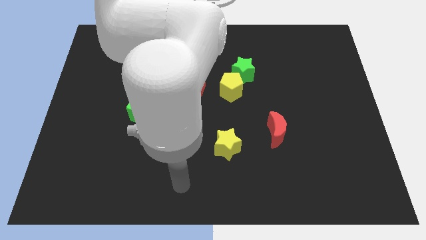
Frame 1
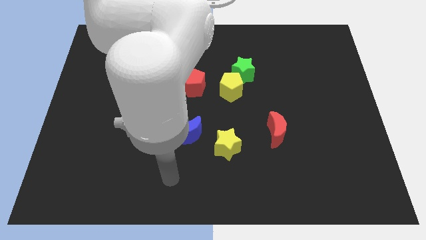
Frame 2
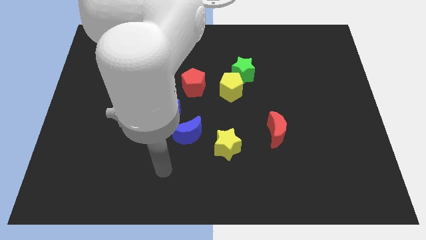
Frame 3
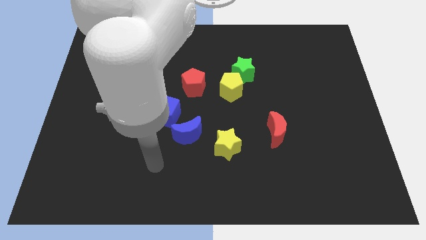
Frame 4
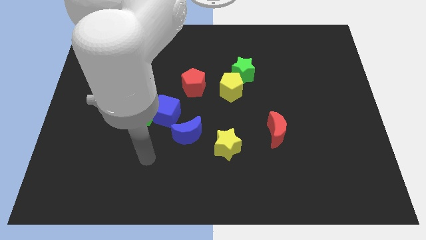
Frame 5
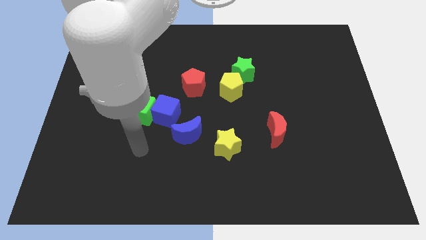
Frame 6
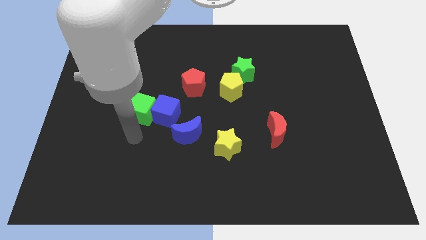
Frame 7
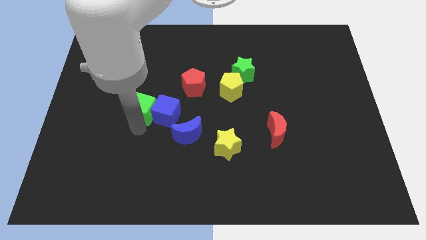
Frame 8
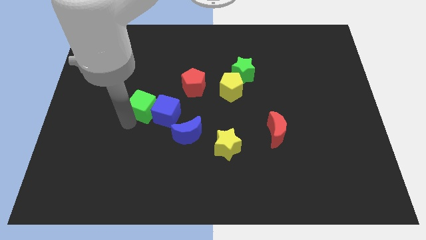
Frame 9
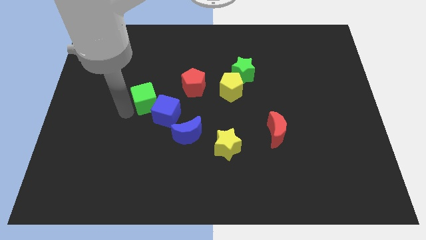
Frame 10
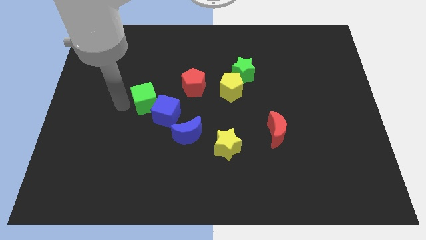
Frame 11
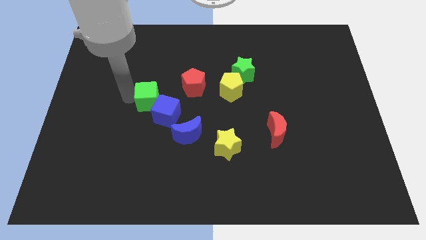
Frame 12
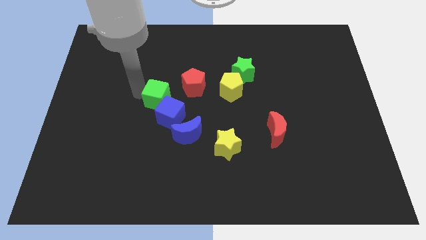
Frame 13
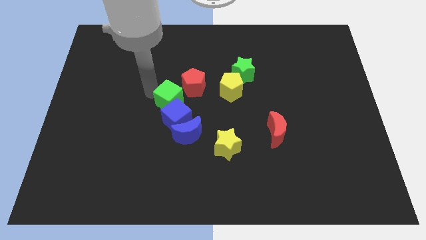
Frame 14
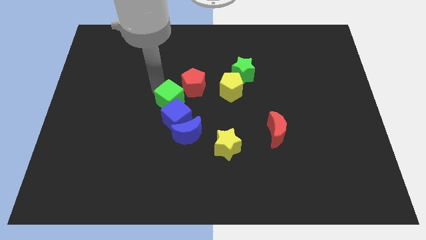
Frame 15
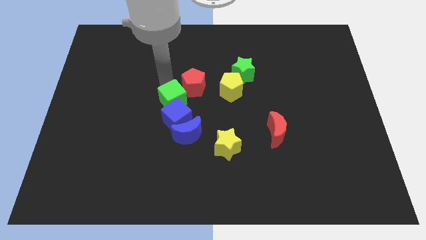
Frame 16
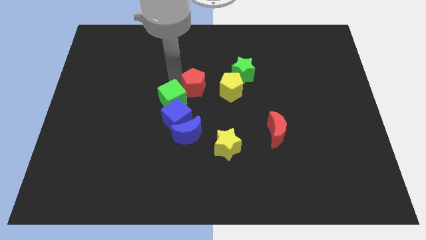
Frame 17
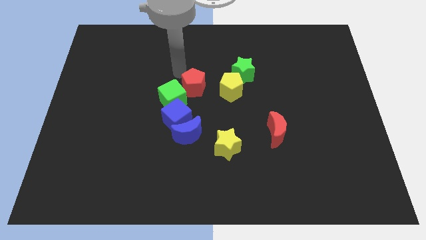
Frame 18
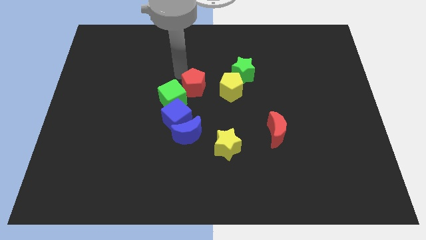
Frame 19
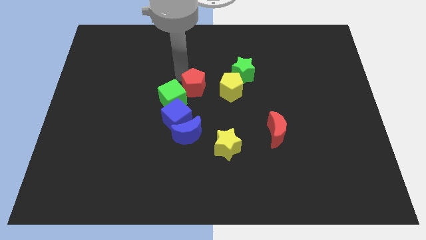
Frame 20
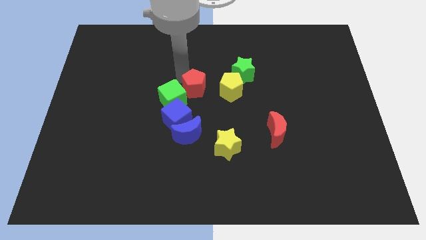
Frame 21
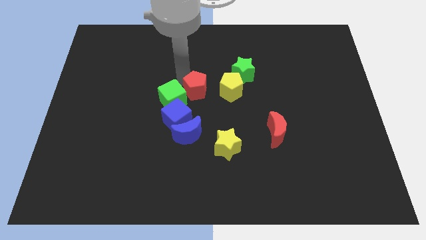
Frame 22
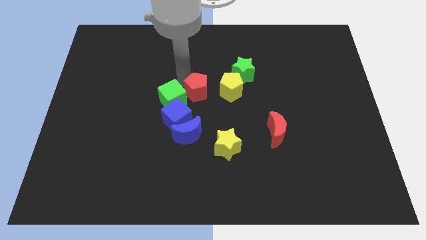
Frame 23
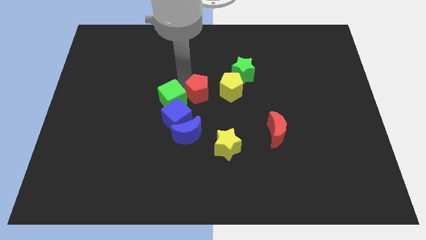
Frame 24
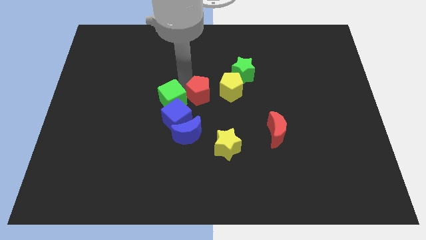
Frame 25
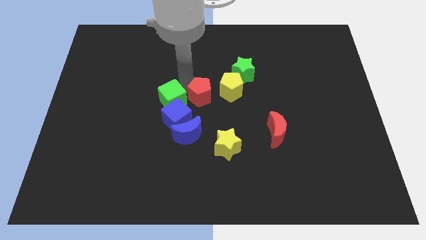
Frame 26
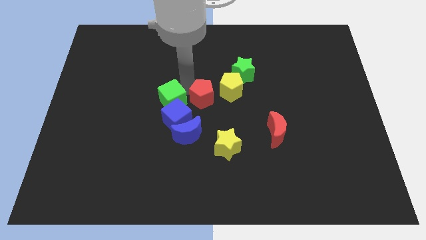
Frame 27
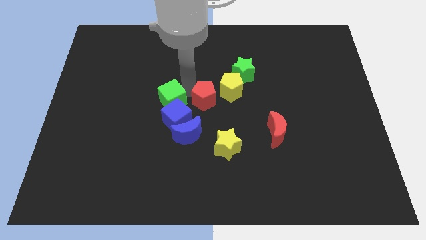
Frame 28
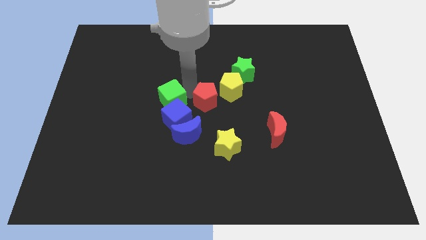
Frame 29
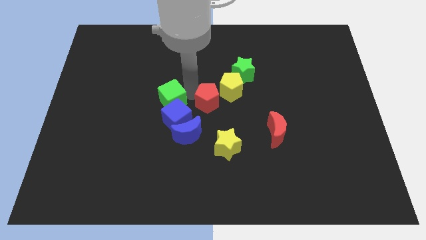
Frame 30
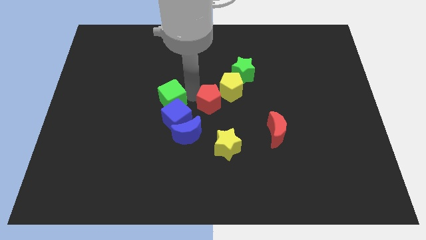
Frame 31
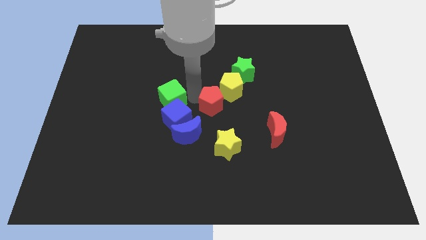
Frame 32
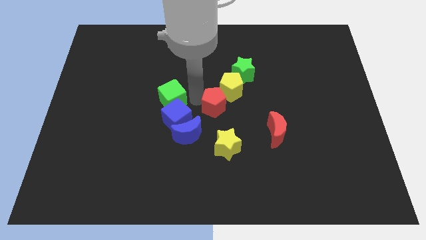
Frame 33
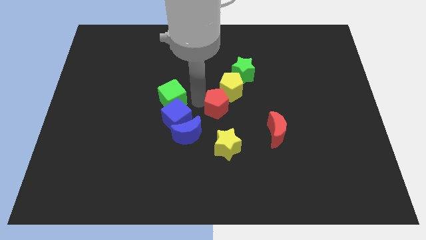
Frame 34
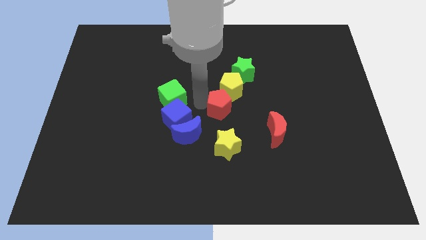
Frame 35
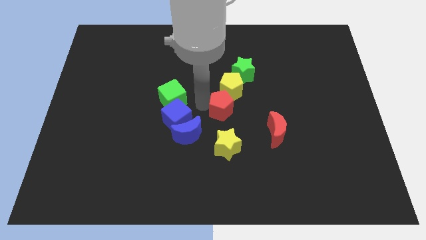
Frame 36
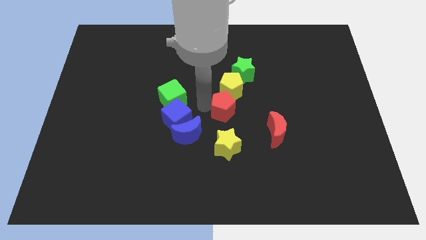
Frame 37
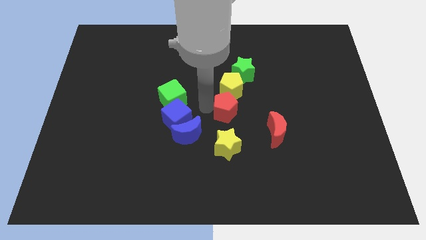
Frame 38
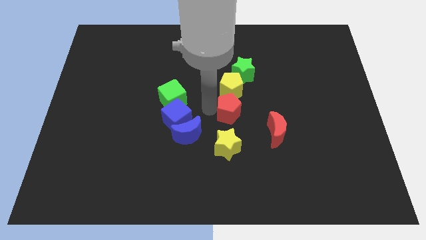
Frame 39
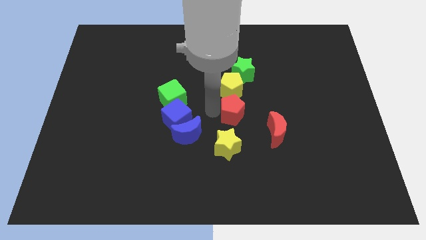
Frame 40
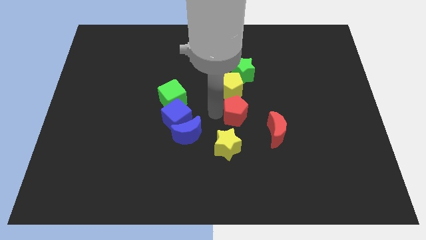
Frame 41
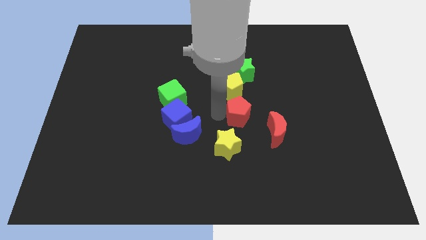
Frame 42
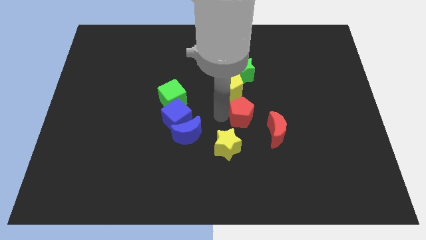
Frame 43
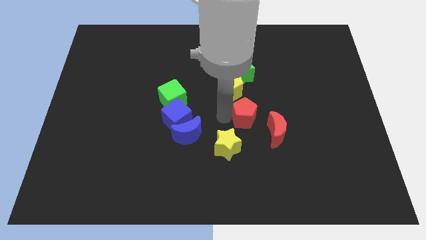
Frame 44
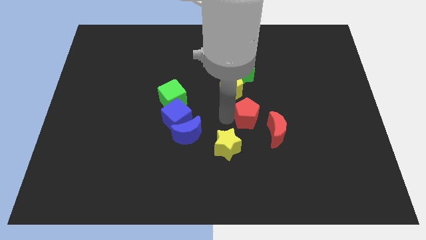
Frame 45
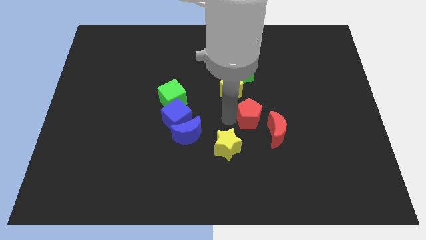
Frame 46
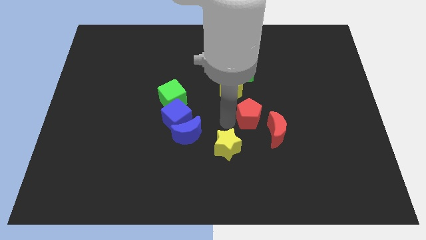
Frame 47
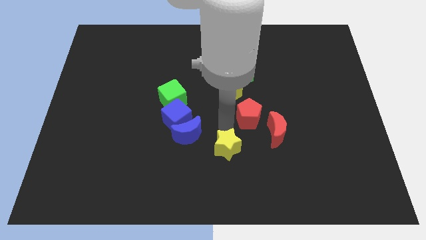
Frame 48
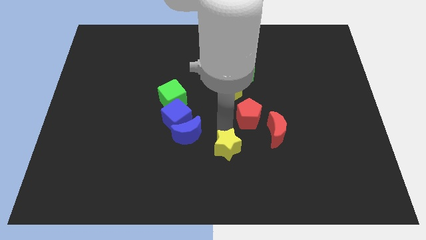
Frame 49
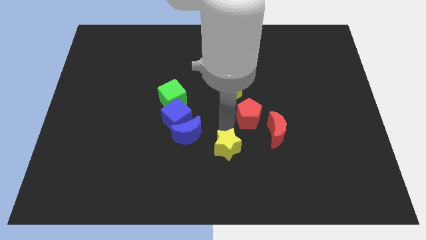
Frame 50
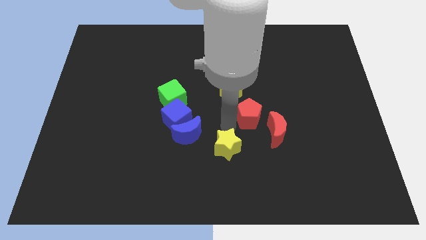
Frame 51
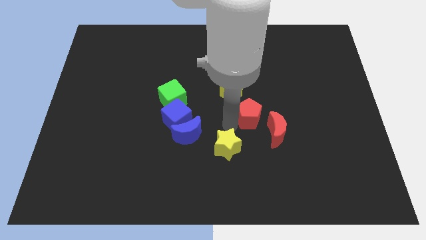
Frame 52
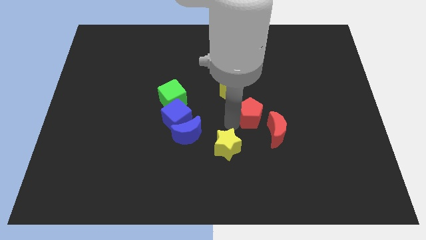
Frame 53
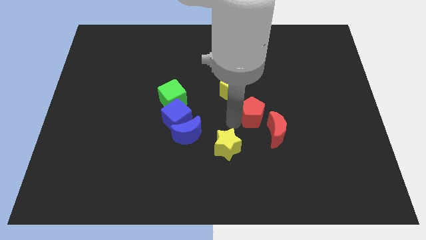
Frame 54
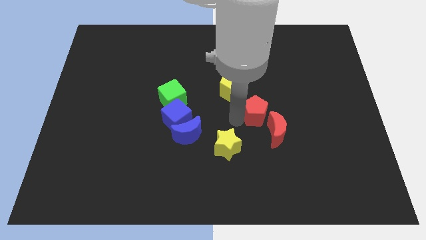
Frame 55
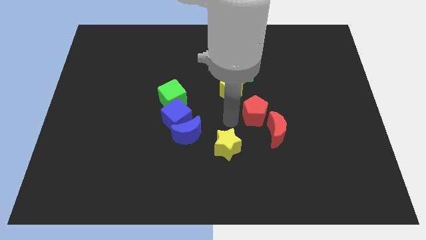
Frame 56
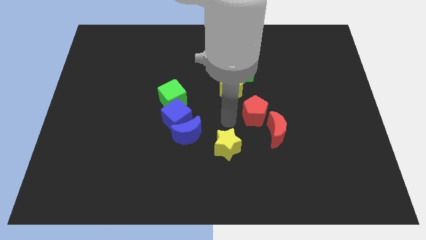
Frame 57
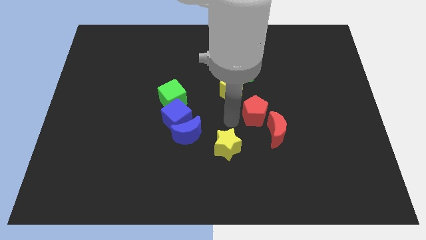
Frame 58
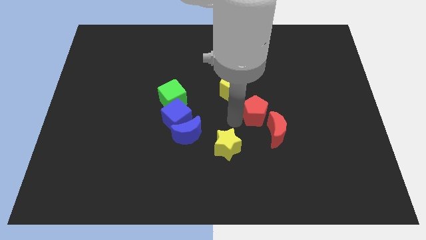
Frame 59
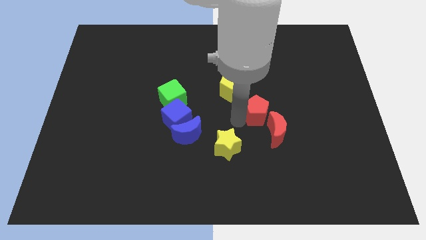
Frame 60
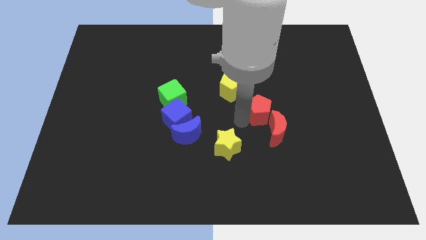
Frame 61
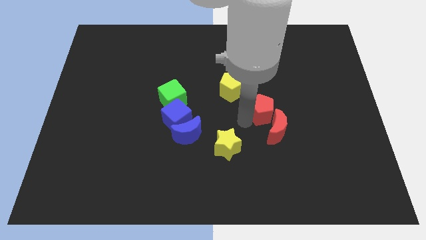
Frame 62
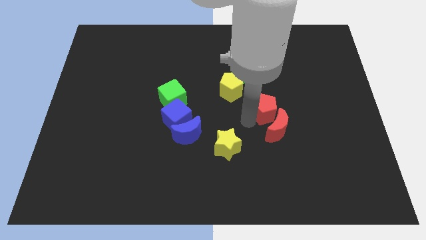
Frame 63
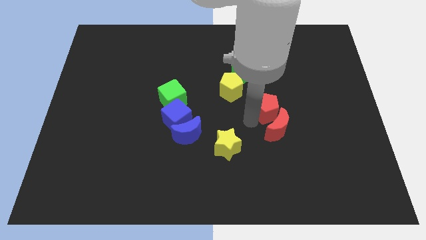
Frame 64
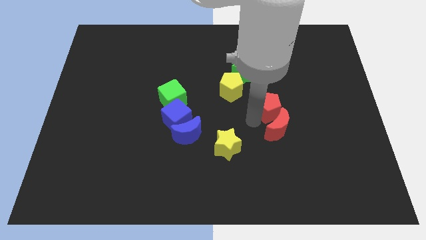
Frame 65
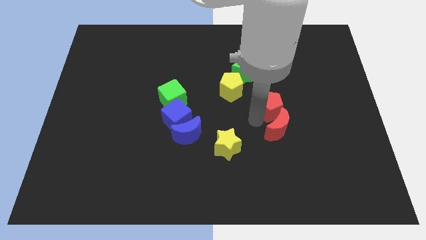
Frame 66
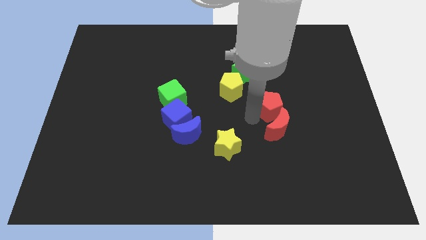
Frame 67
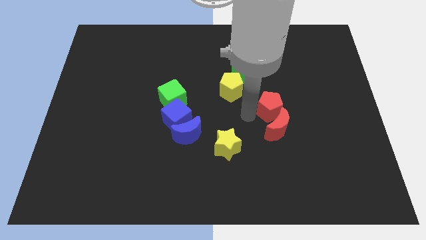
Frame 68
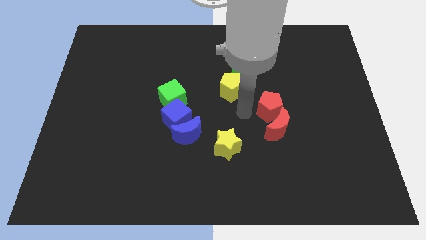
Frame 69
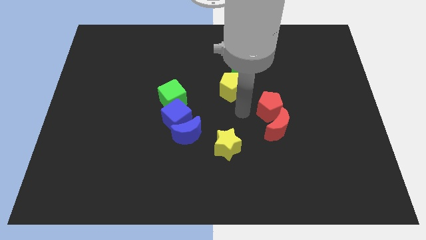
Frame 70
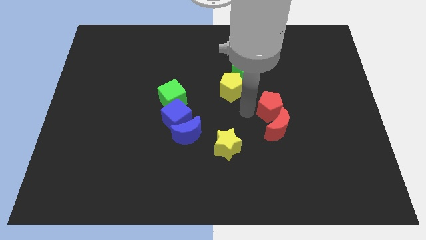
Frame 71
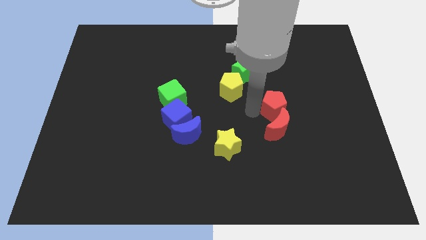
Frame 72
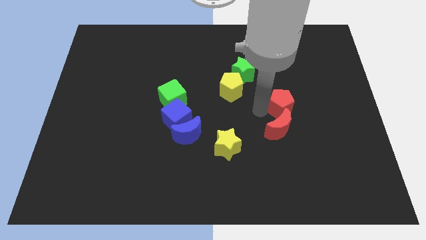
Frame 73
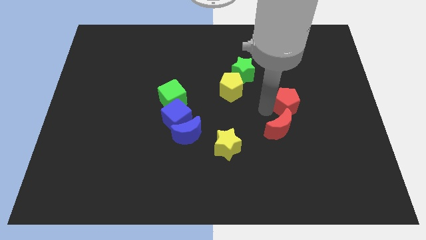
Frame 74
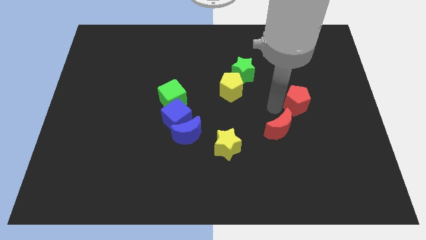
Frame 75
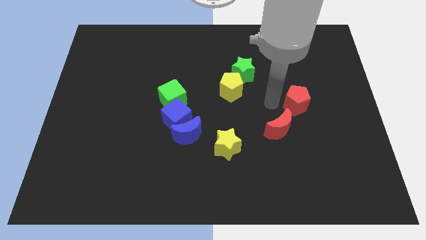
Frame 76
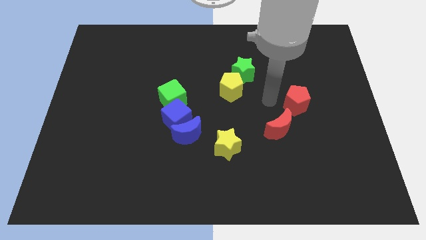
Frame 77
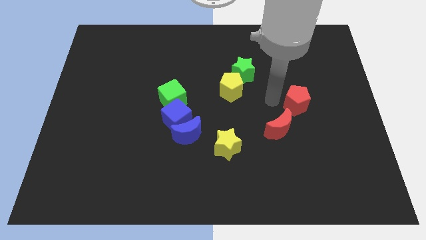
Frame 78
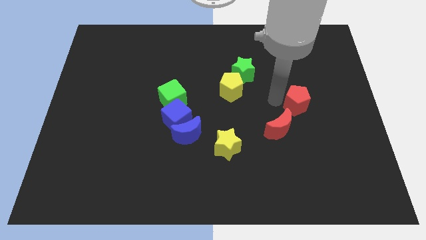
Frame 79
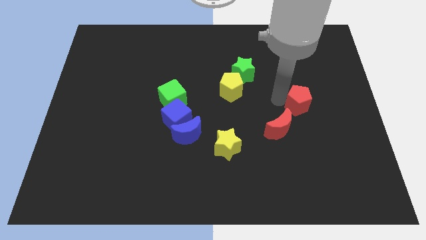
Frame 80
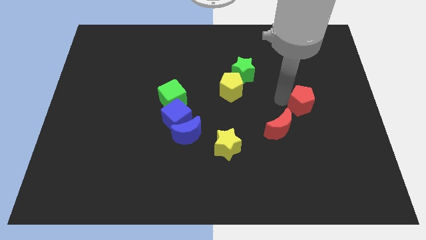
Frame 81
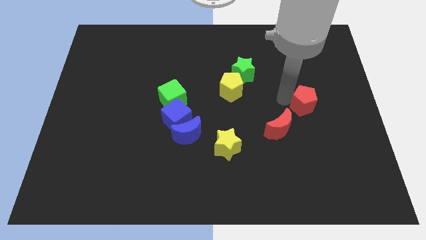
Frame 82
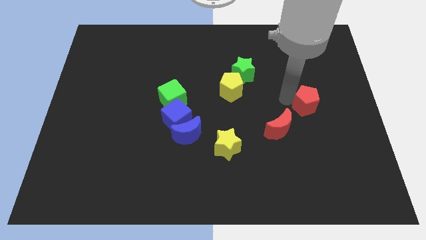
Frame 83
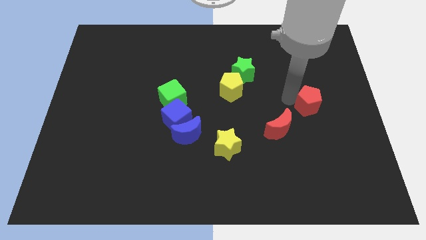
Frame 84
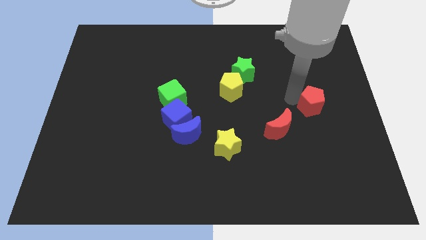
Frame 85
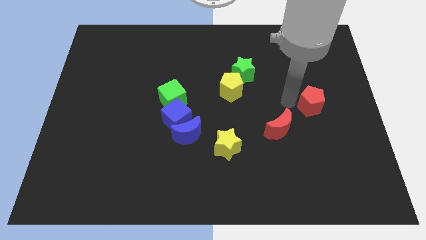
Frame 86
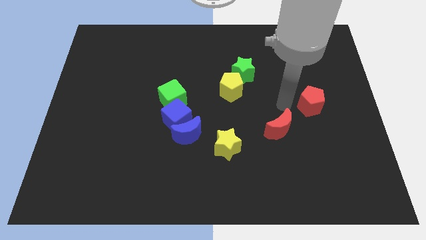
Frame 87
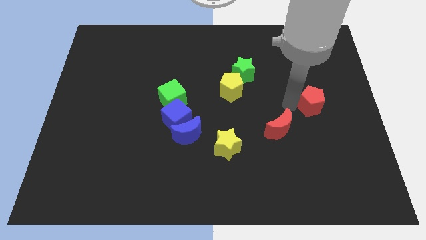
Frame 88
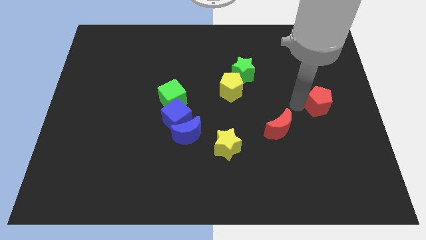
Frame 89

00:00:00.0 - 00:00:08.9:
move the red pentagon to the center right
